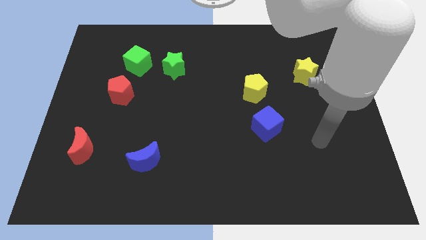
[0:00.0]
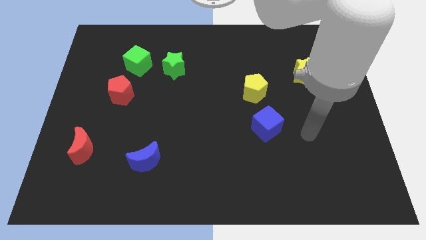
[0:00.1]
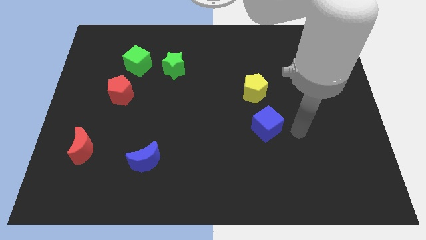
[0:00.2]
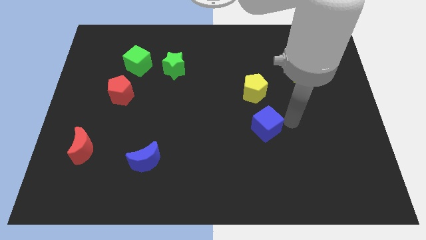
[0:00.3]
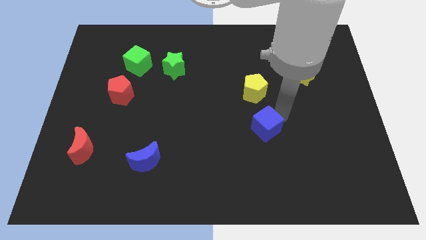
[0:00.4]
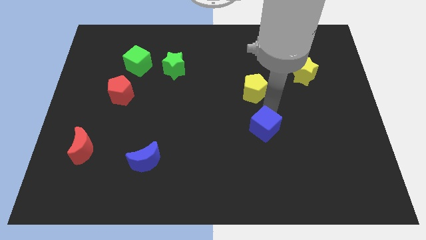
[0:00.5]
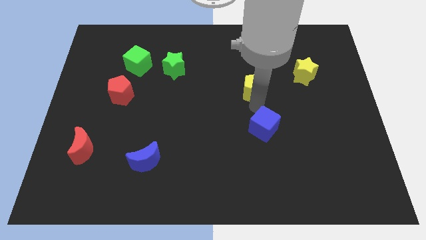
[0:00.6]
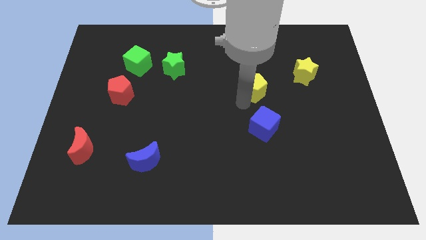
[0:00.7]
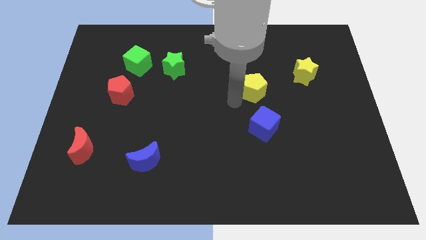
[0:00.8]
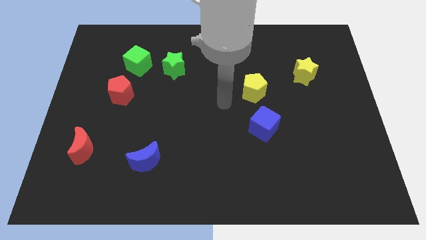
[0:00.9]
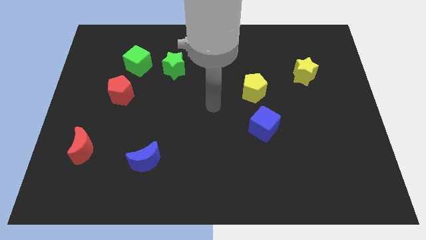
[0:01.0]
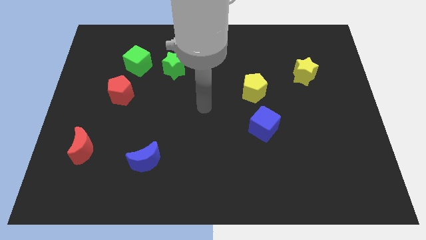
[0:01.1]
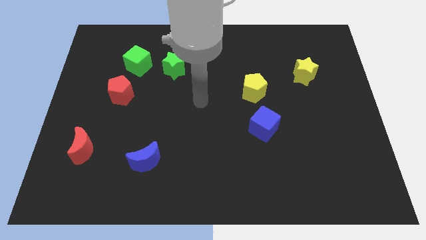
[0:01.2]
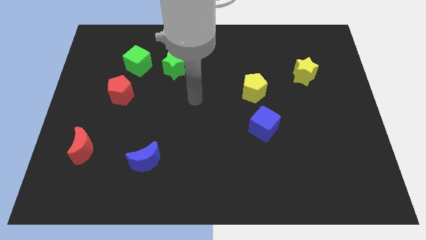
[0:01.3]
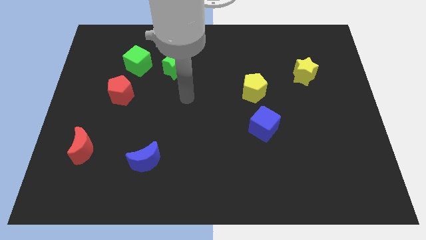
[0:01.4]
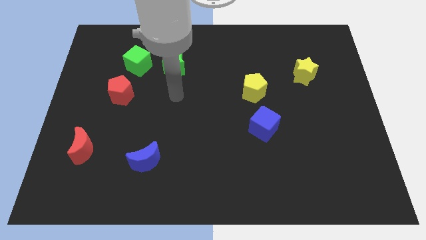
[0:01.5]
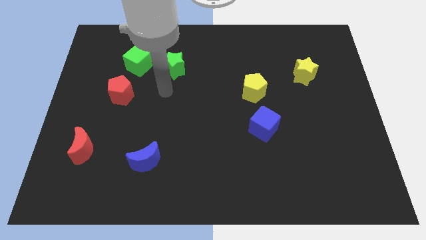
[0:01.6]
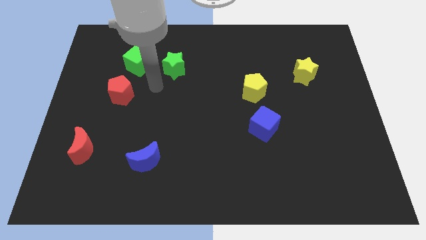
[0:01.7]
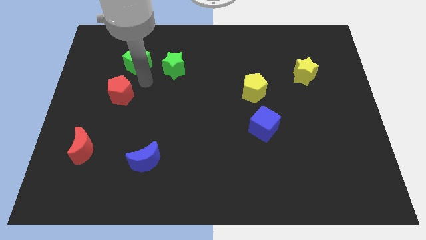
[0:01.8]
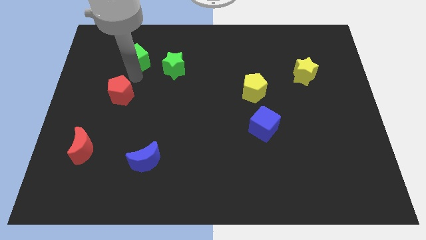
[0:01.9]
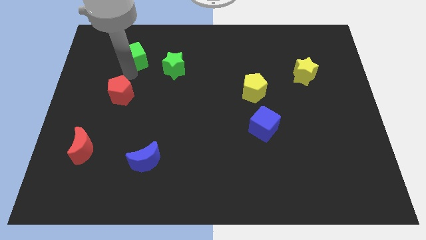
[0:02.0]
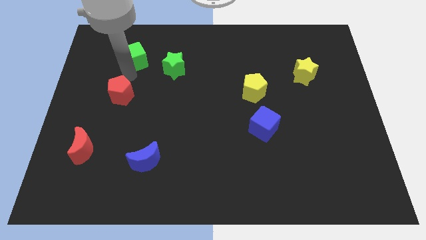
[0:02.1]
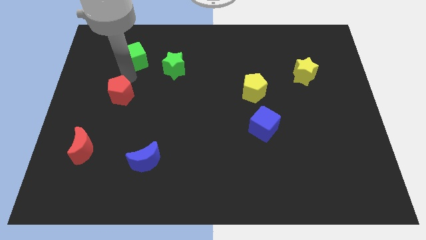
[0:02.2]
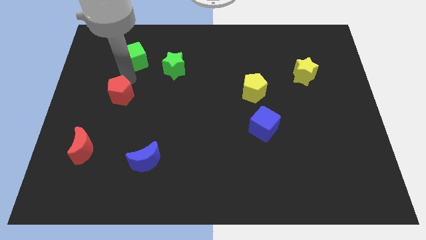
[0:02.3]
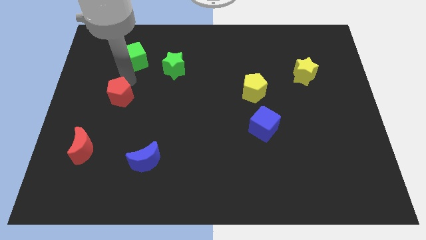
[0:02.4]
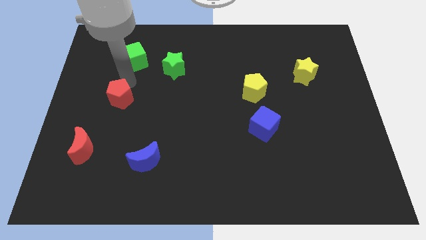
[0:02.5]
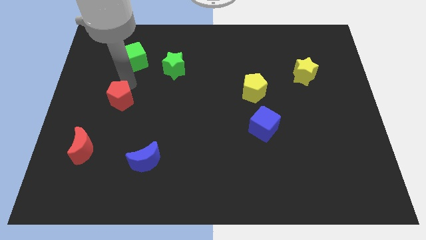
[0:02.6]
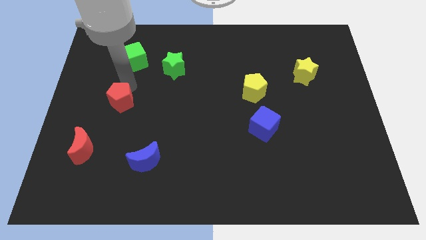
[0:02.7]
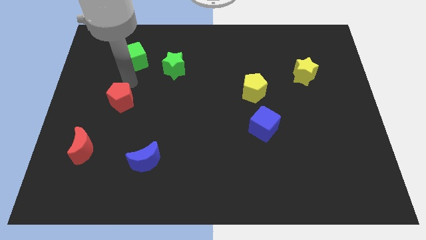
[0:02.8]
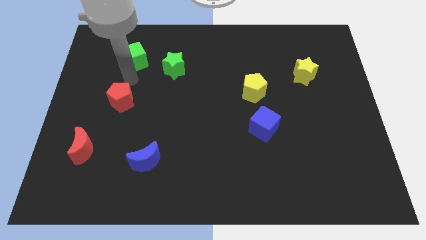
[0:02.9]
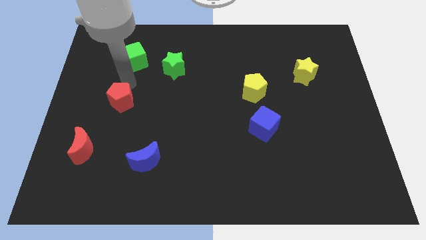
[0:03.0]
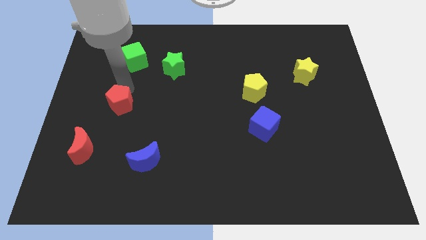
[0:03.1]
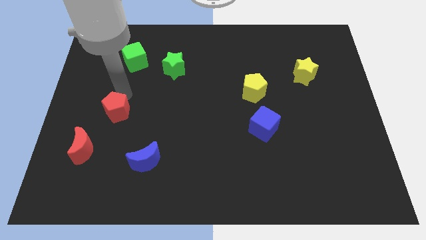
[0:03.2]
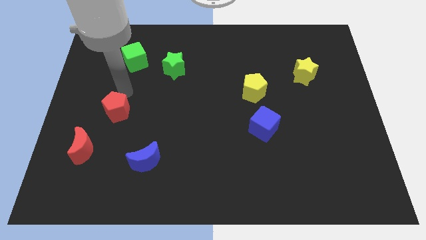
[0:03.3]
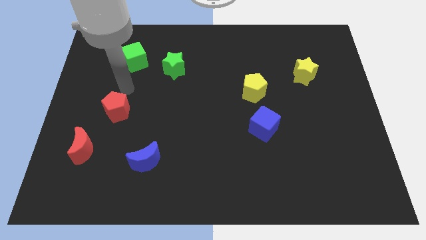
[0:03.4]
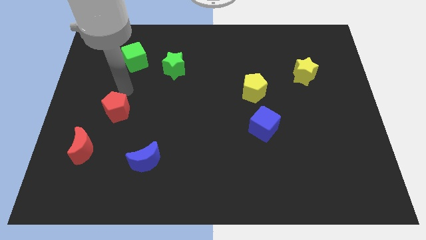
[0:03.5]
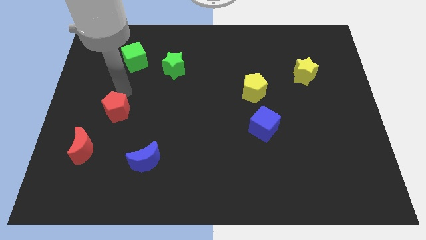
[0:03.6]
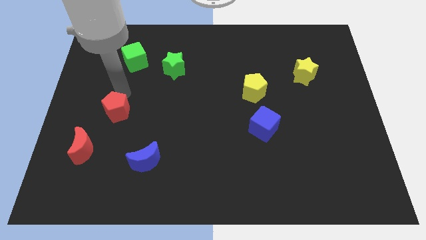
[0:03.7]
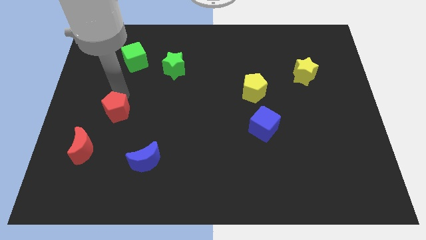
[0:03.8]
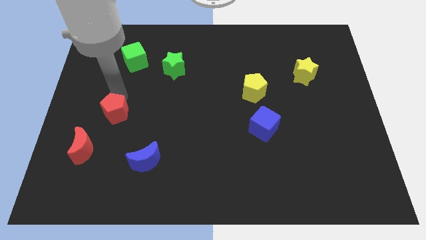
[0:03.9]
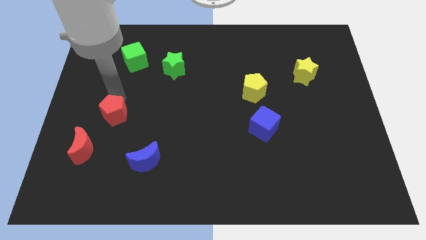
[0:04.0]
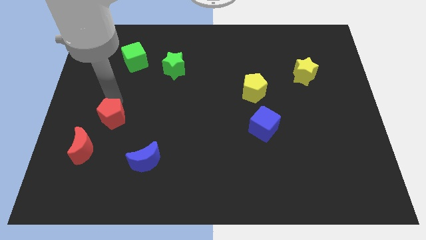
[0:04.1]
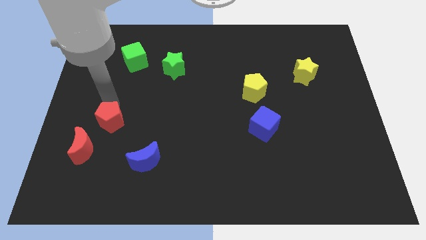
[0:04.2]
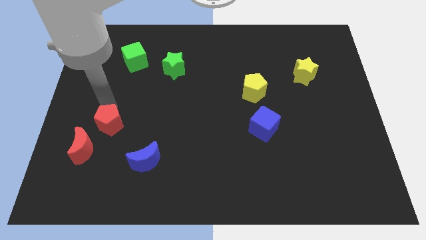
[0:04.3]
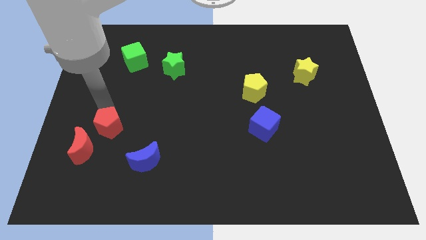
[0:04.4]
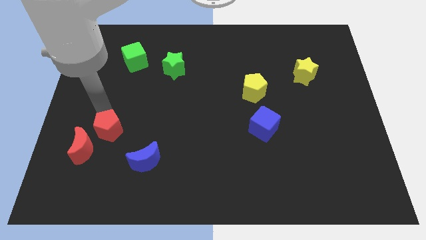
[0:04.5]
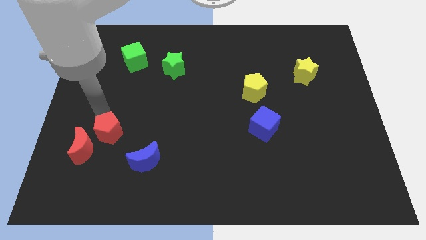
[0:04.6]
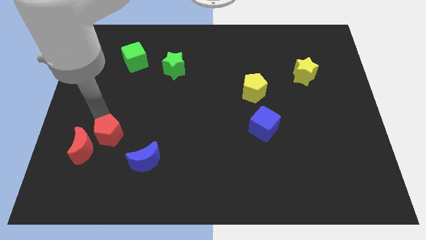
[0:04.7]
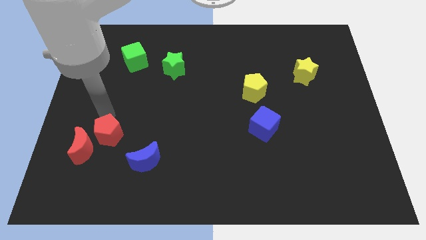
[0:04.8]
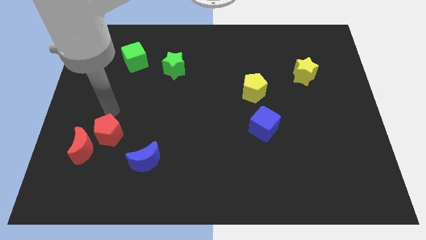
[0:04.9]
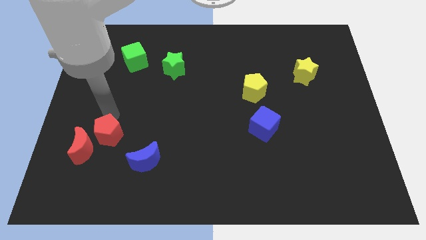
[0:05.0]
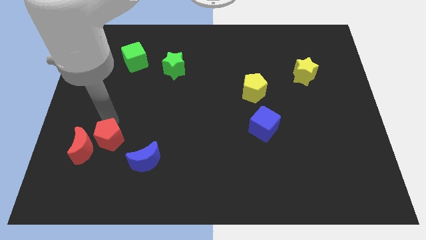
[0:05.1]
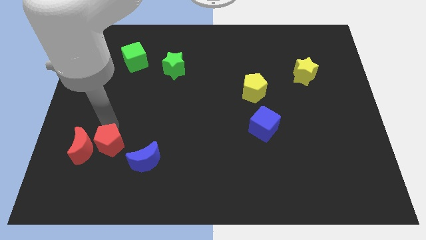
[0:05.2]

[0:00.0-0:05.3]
push the red pentagon to the bottom right side of the red moon

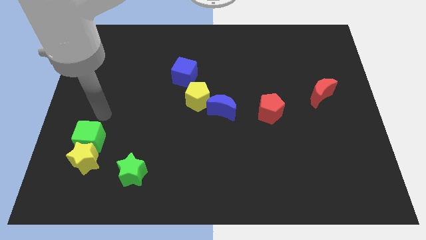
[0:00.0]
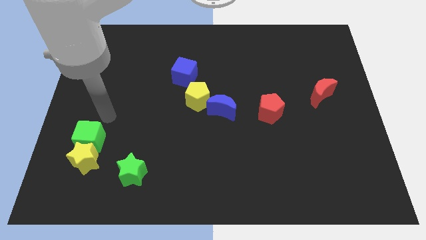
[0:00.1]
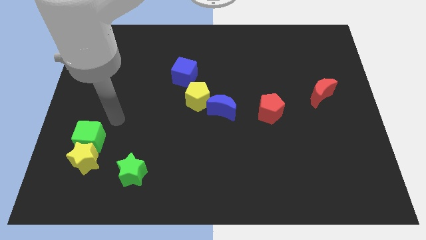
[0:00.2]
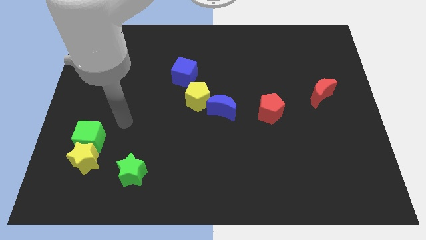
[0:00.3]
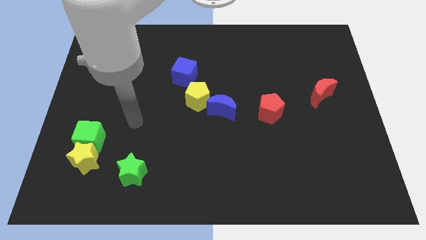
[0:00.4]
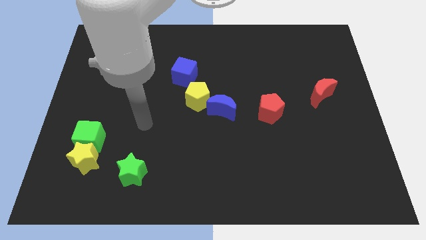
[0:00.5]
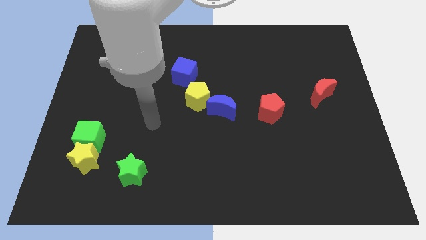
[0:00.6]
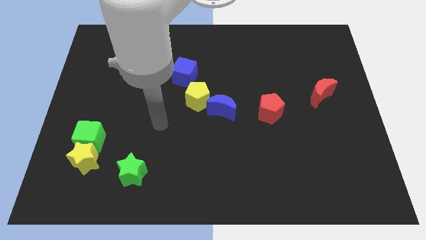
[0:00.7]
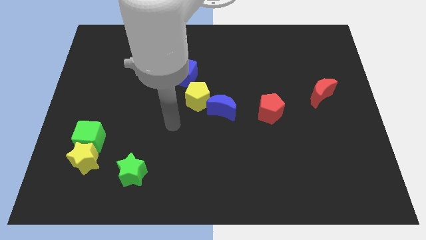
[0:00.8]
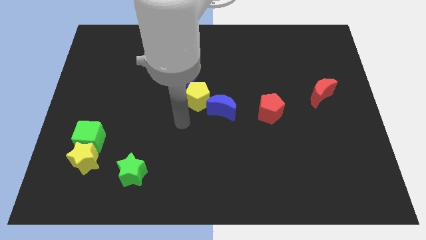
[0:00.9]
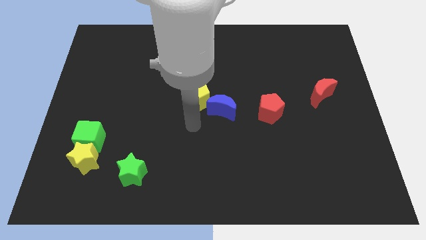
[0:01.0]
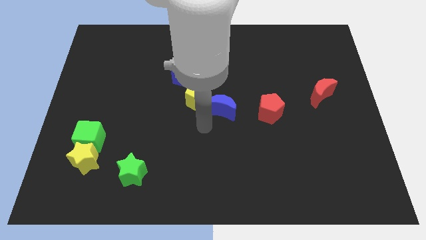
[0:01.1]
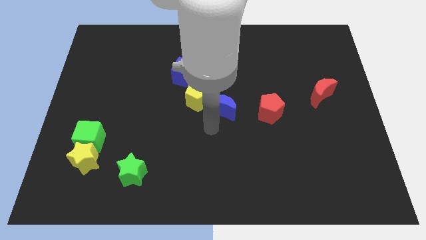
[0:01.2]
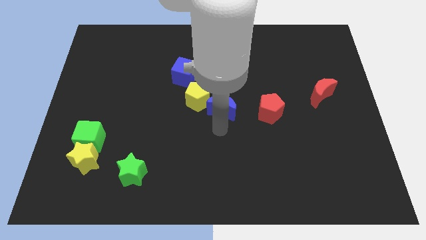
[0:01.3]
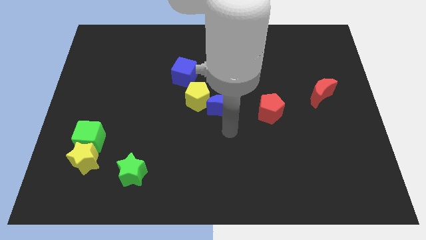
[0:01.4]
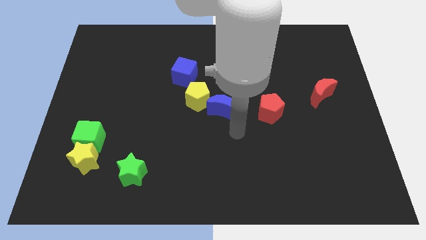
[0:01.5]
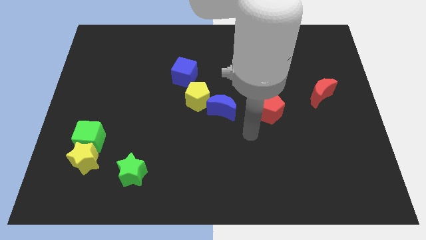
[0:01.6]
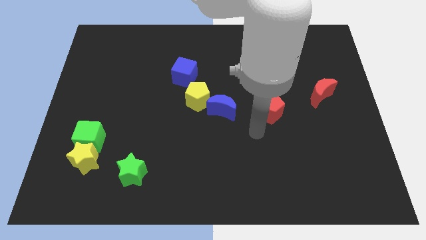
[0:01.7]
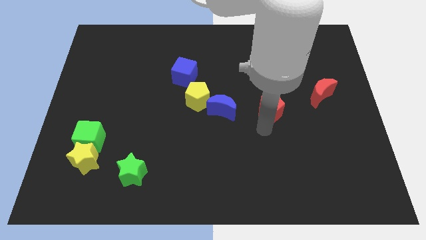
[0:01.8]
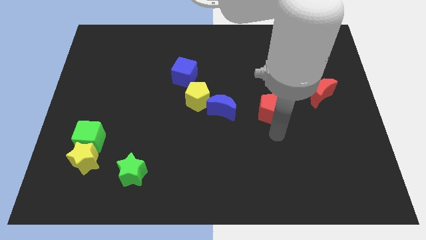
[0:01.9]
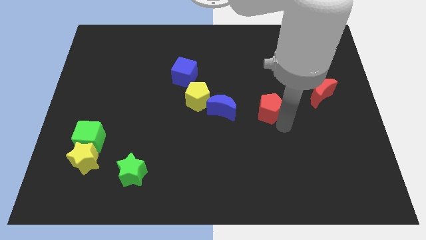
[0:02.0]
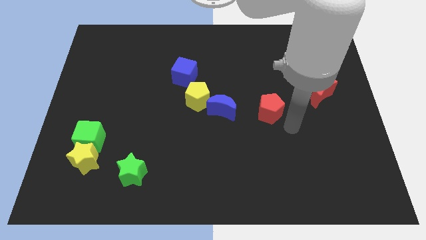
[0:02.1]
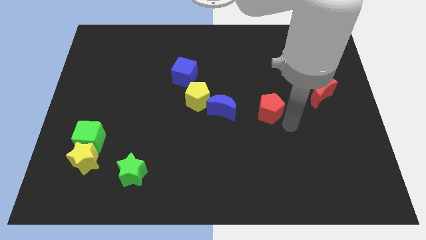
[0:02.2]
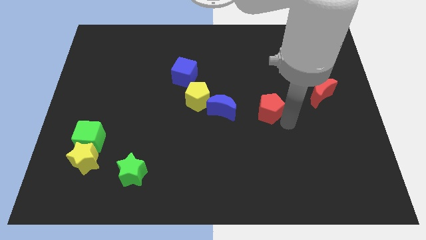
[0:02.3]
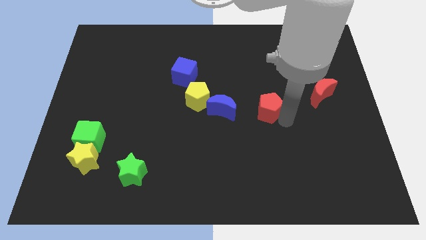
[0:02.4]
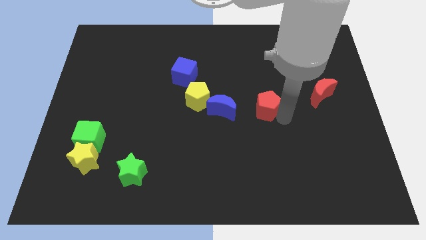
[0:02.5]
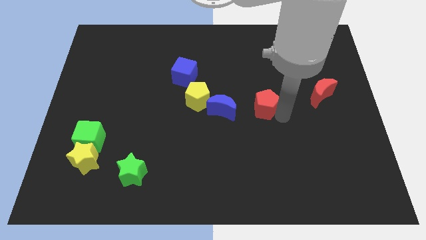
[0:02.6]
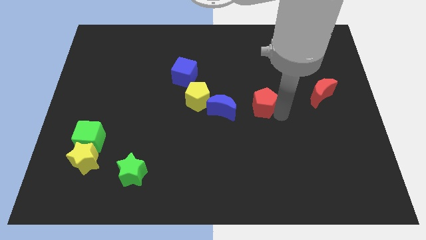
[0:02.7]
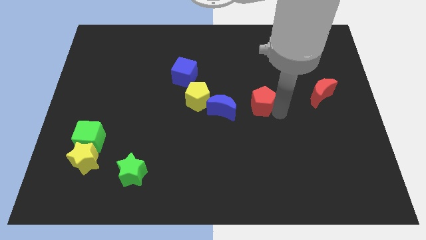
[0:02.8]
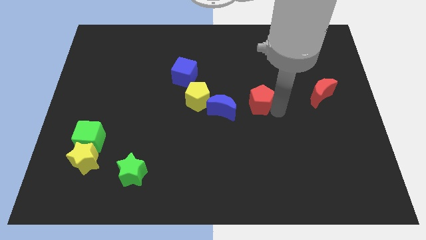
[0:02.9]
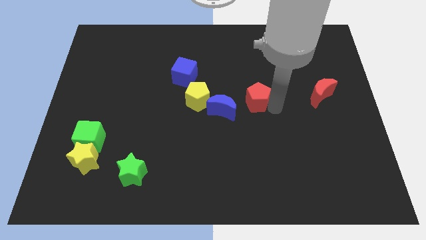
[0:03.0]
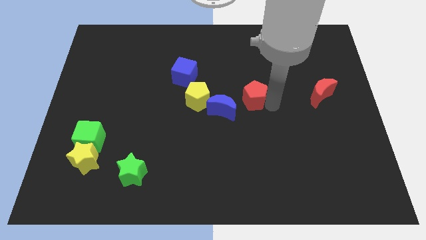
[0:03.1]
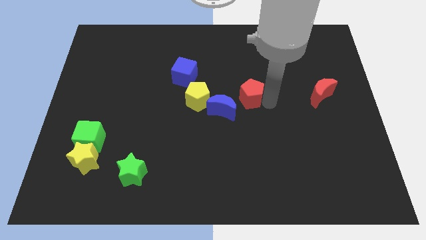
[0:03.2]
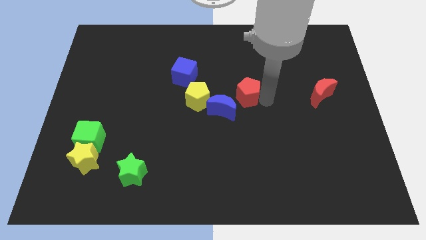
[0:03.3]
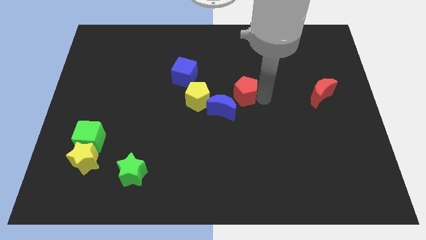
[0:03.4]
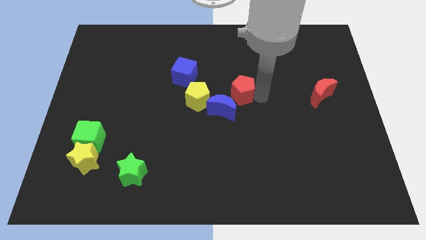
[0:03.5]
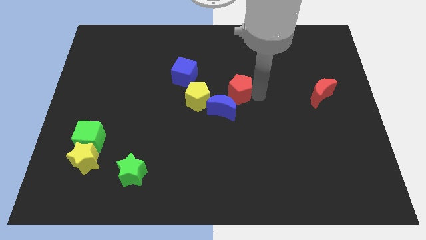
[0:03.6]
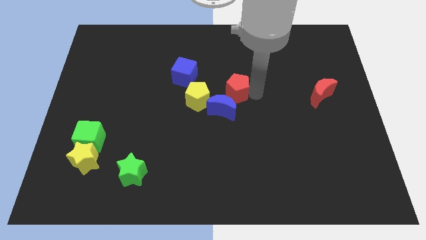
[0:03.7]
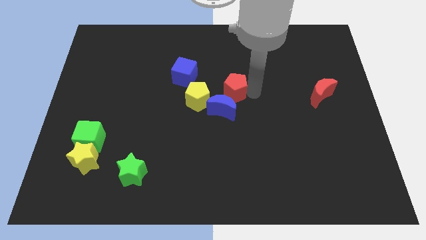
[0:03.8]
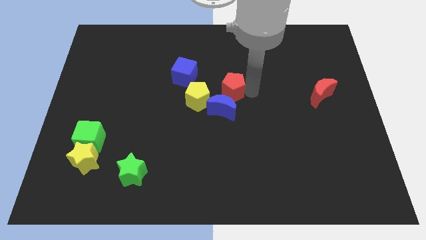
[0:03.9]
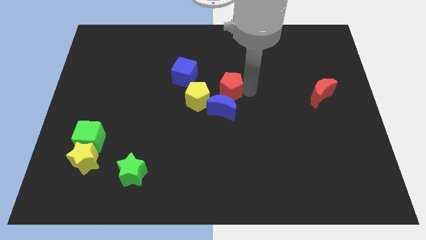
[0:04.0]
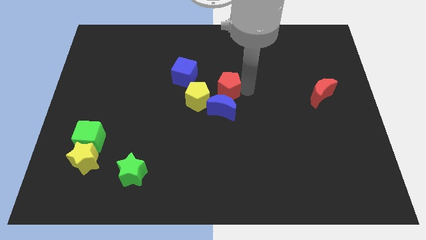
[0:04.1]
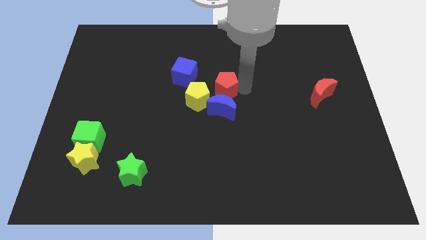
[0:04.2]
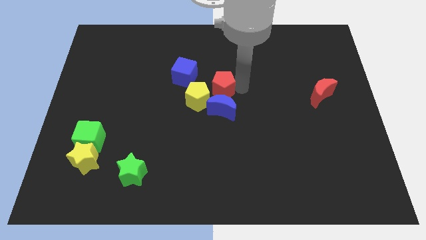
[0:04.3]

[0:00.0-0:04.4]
move the red pentagon to the top left of the blue moon
